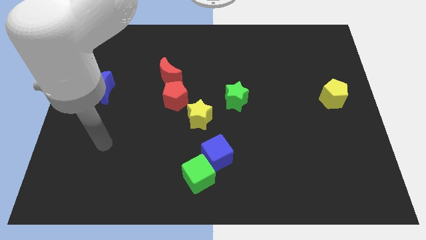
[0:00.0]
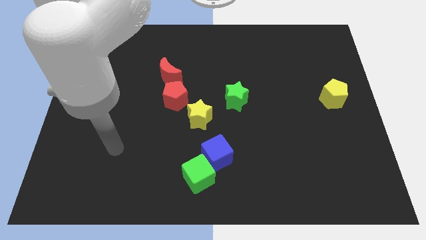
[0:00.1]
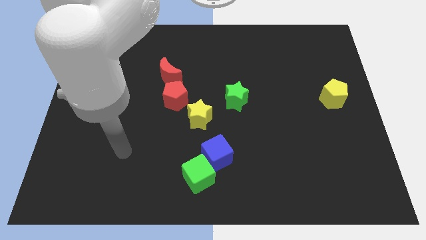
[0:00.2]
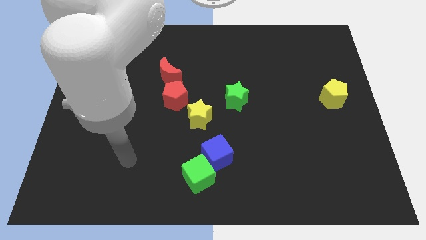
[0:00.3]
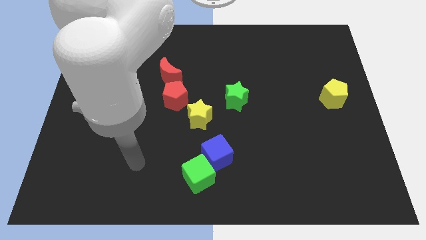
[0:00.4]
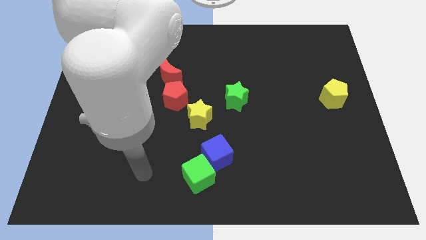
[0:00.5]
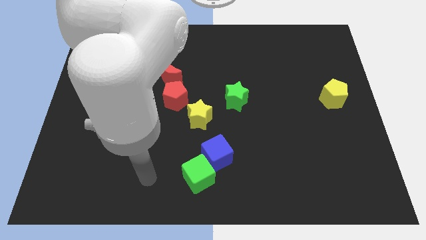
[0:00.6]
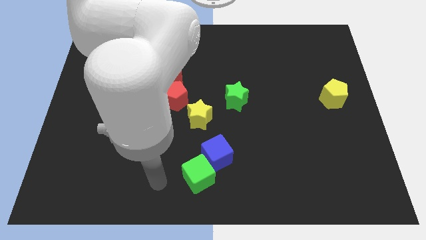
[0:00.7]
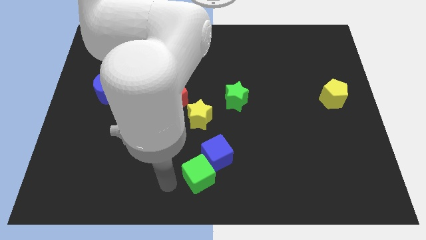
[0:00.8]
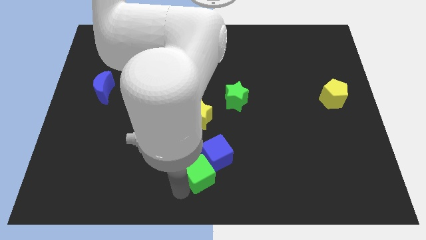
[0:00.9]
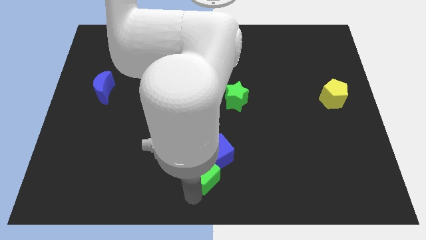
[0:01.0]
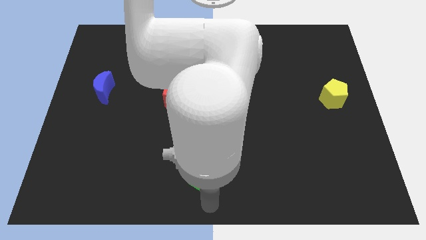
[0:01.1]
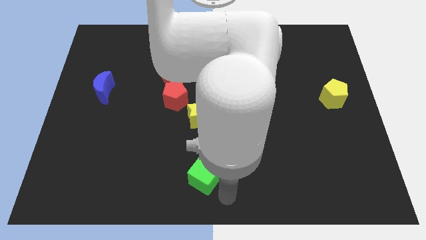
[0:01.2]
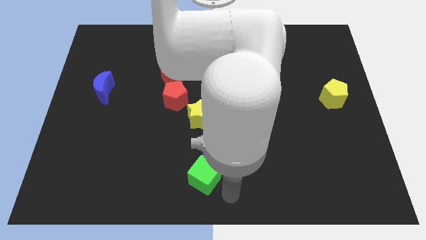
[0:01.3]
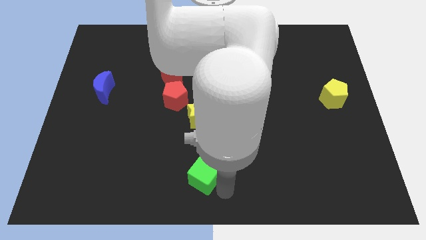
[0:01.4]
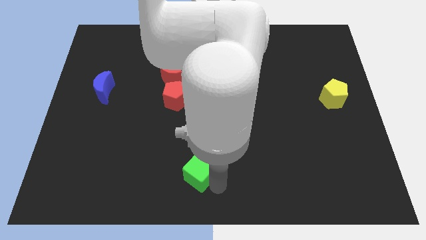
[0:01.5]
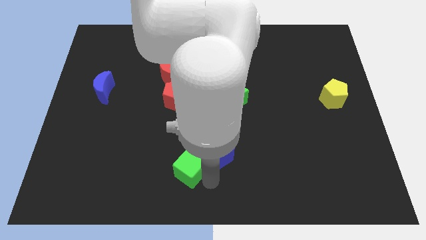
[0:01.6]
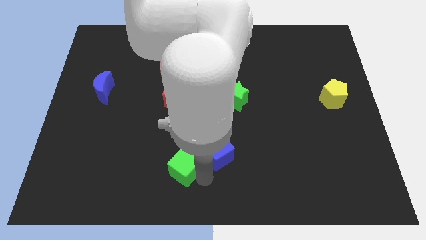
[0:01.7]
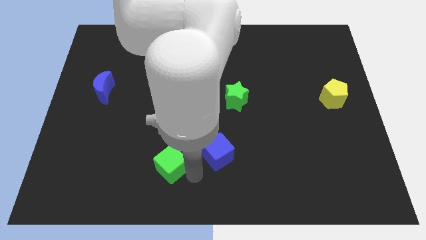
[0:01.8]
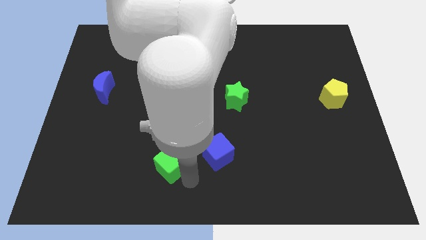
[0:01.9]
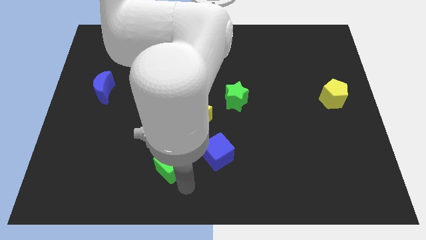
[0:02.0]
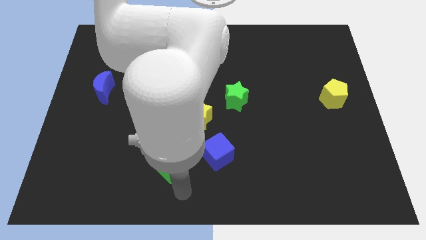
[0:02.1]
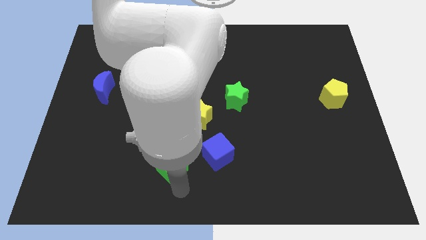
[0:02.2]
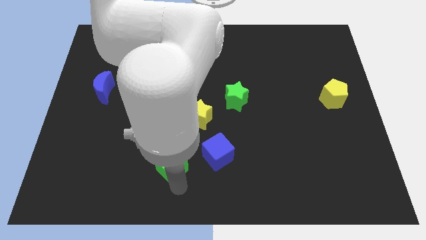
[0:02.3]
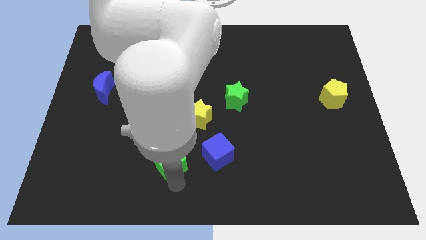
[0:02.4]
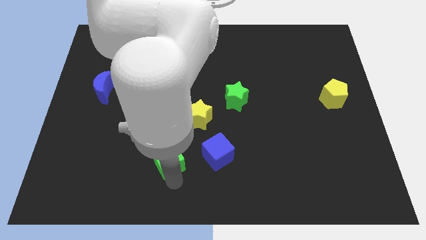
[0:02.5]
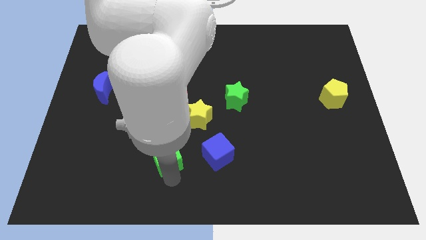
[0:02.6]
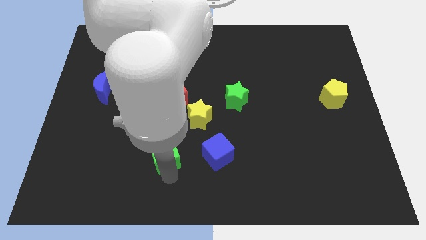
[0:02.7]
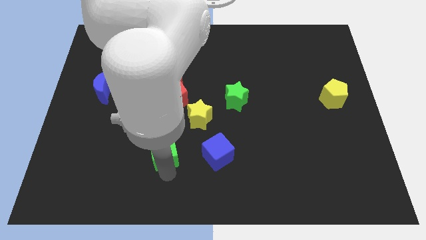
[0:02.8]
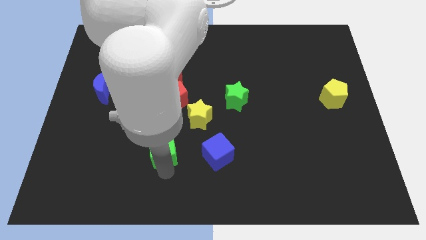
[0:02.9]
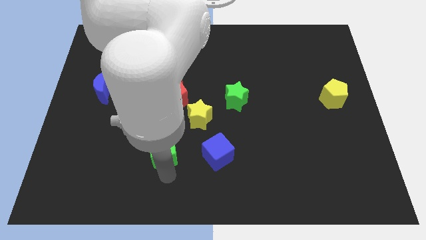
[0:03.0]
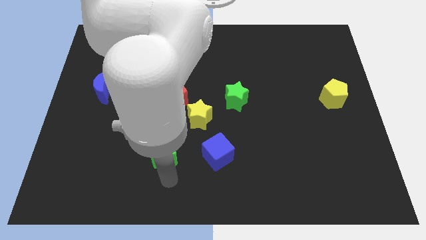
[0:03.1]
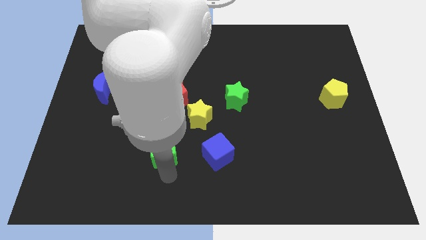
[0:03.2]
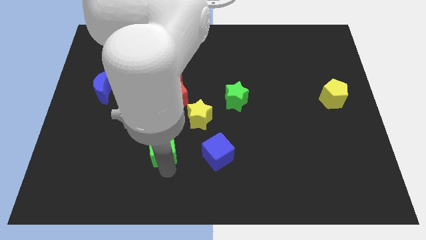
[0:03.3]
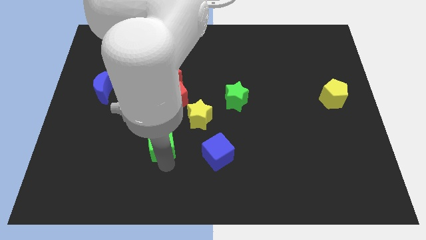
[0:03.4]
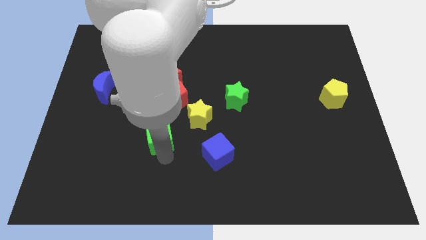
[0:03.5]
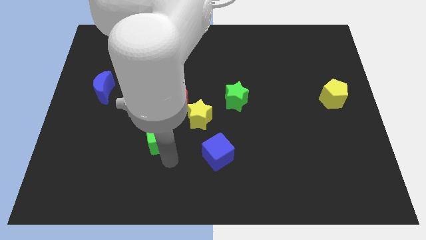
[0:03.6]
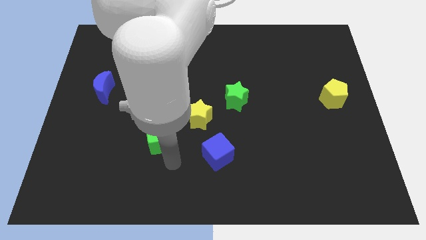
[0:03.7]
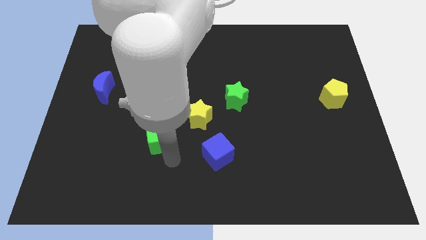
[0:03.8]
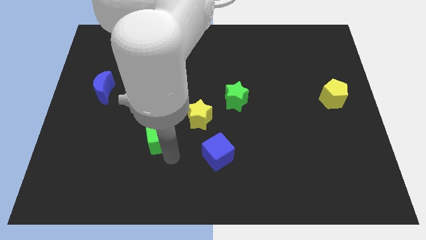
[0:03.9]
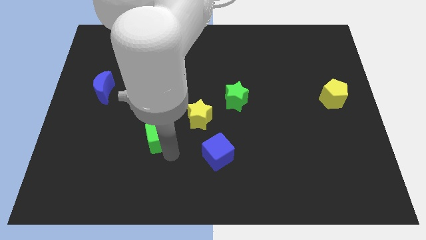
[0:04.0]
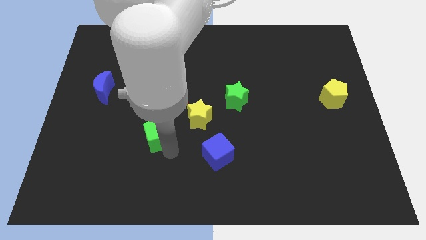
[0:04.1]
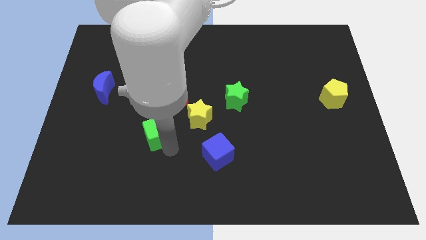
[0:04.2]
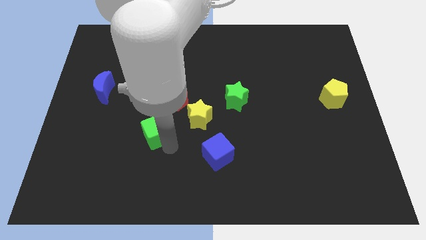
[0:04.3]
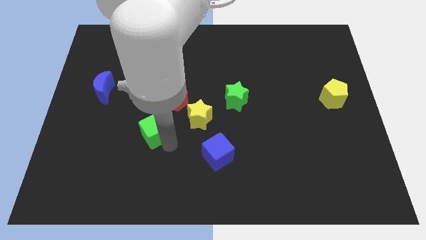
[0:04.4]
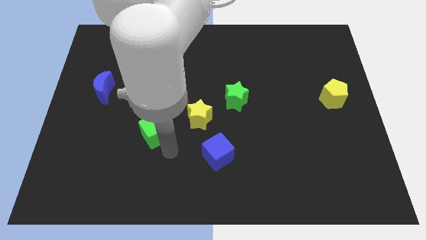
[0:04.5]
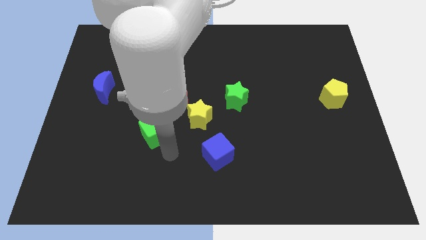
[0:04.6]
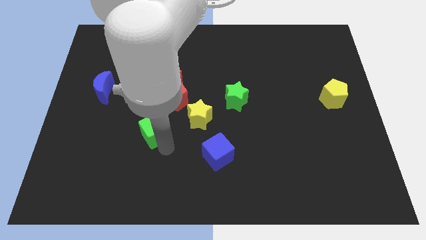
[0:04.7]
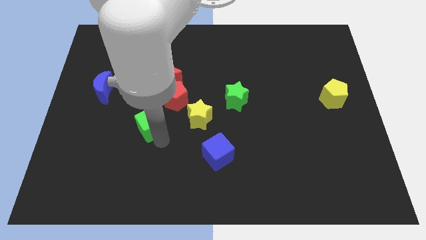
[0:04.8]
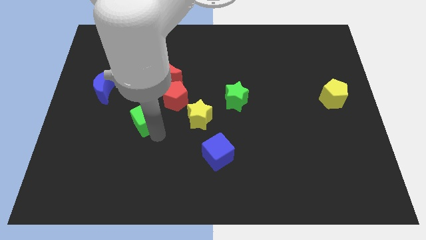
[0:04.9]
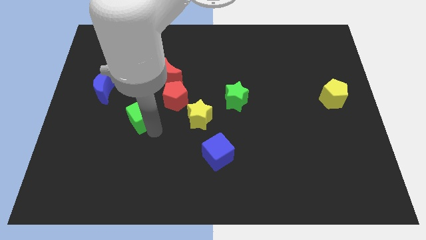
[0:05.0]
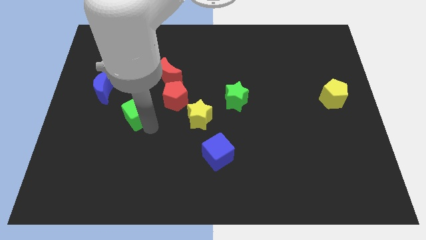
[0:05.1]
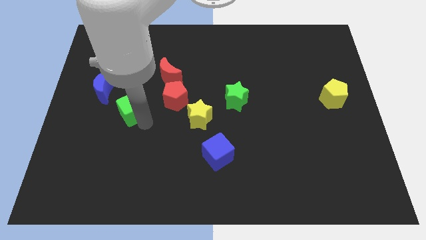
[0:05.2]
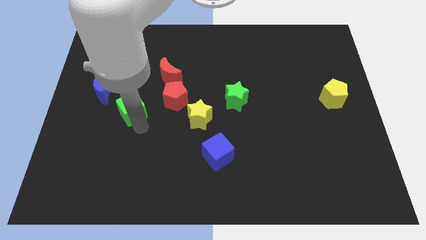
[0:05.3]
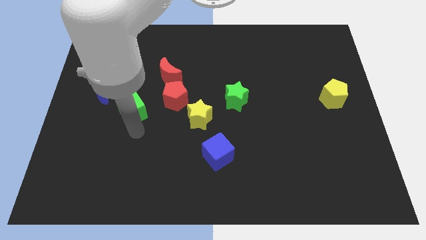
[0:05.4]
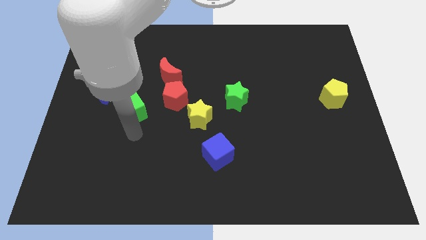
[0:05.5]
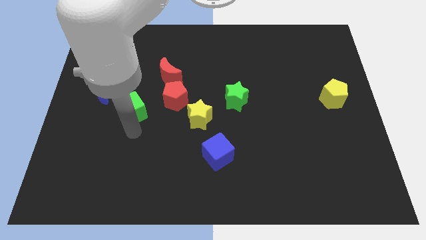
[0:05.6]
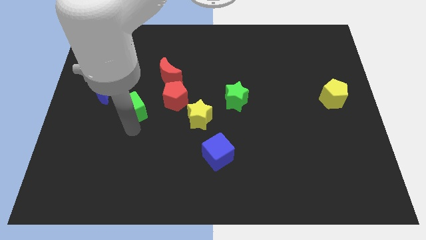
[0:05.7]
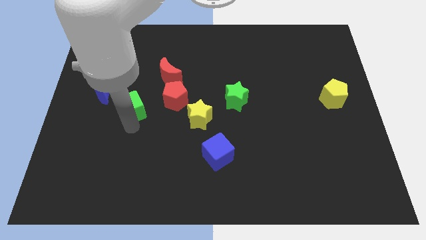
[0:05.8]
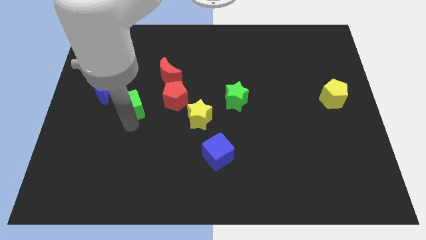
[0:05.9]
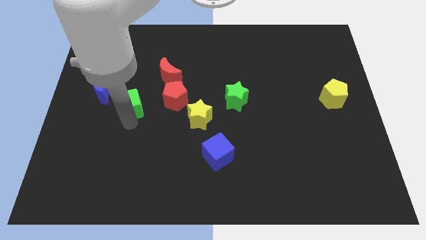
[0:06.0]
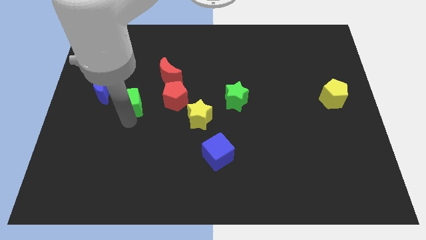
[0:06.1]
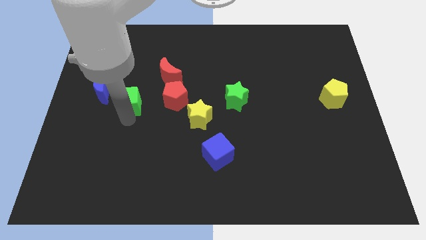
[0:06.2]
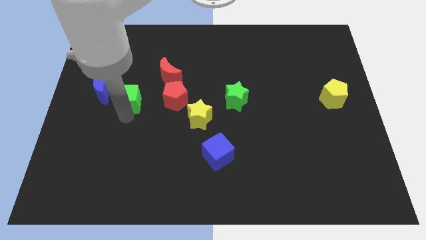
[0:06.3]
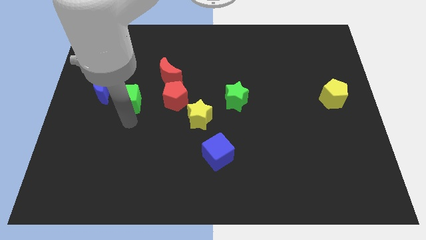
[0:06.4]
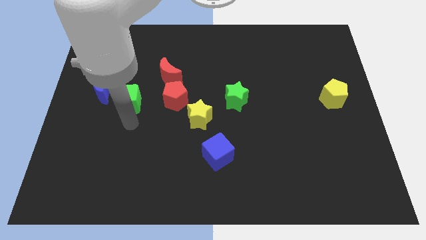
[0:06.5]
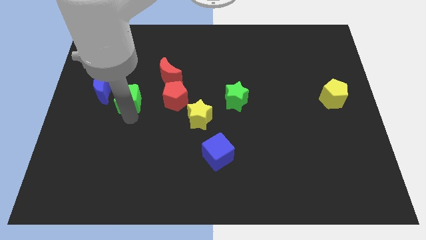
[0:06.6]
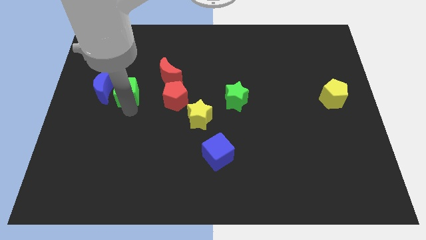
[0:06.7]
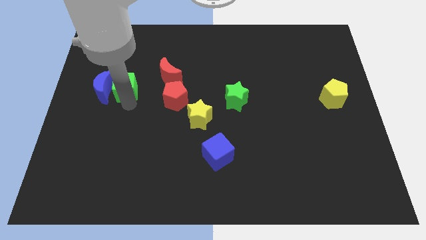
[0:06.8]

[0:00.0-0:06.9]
move the green cube left of the red moon

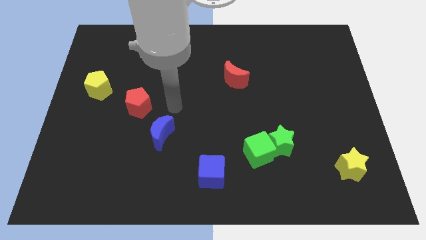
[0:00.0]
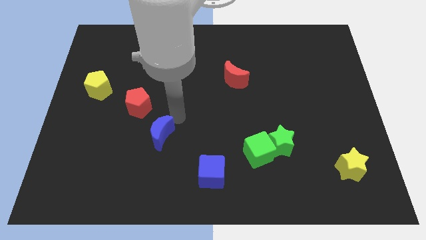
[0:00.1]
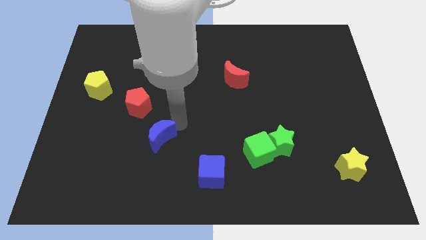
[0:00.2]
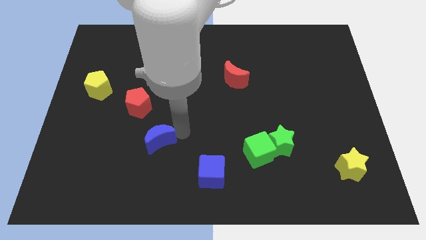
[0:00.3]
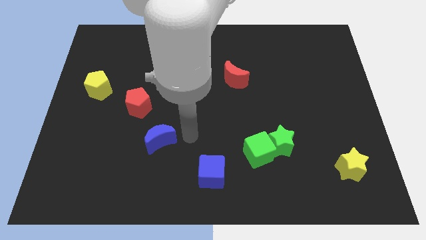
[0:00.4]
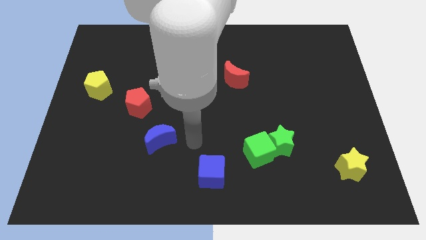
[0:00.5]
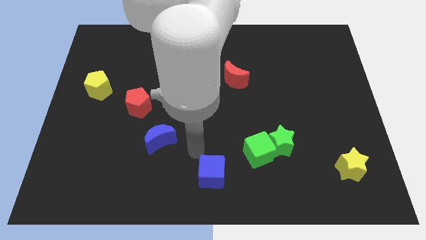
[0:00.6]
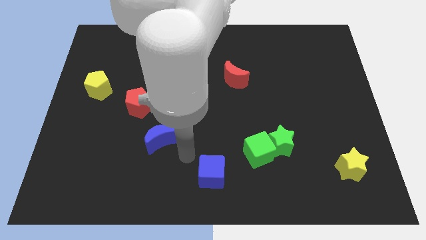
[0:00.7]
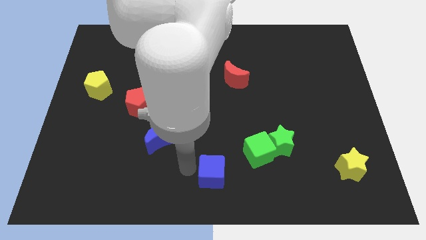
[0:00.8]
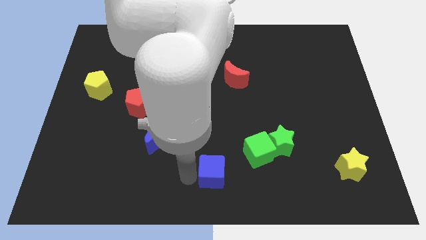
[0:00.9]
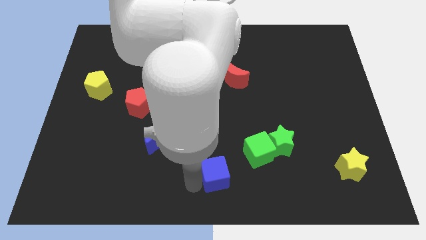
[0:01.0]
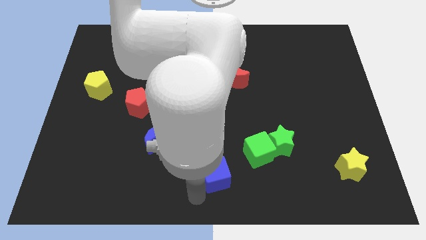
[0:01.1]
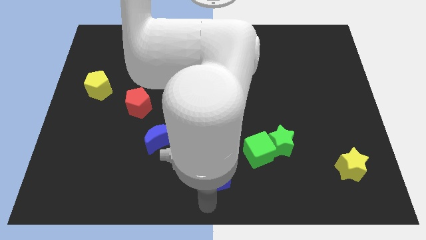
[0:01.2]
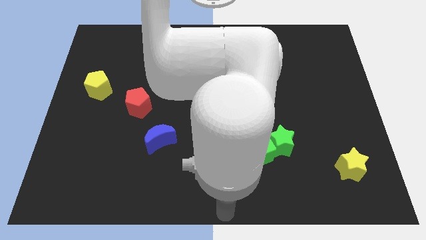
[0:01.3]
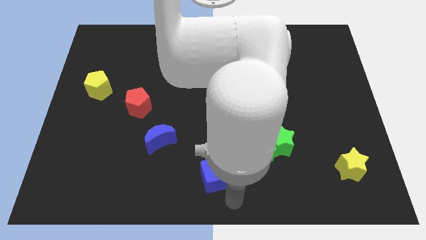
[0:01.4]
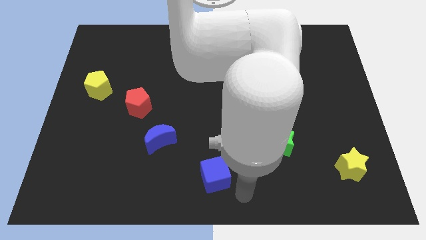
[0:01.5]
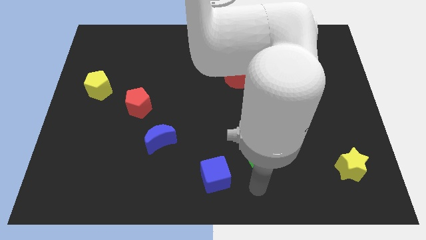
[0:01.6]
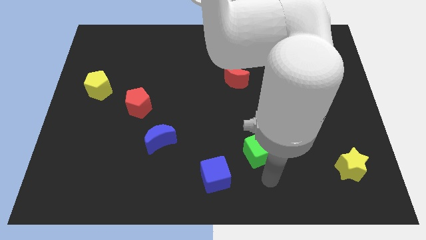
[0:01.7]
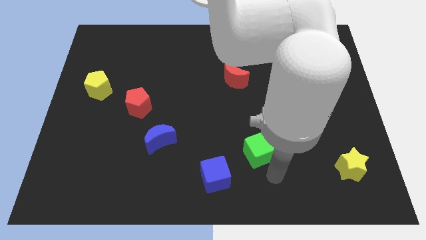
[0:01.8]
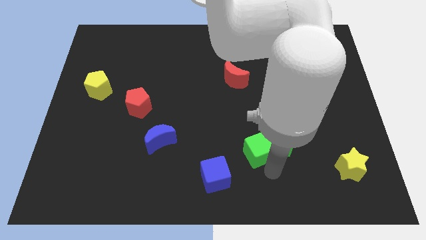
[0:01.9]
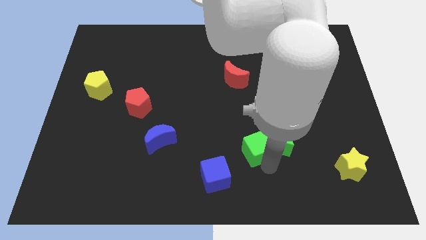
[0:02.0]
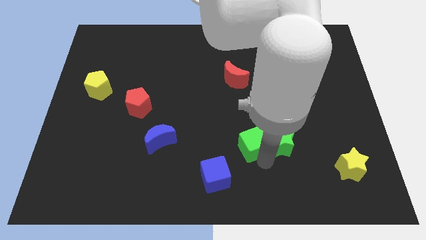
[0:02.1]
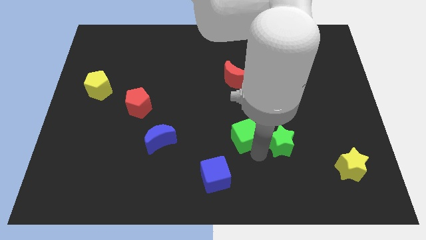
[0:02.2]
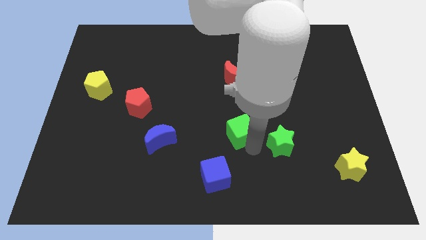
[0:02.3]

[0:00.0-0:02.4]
slide the green cube below the red moon
